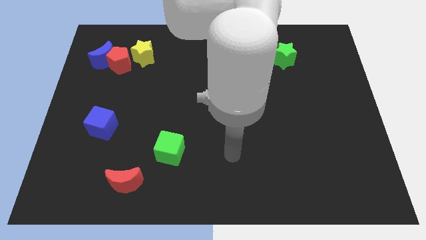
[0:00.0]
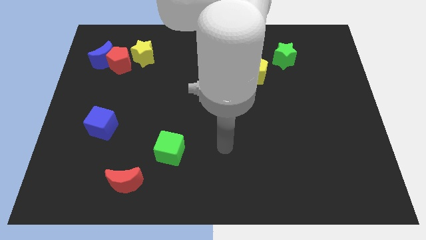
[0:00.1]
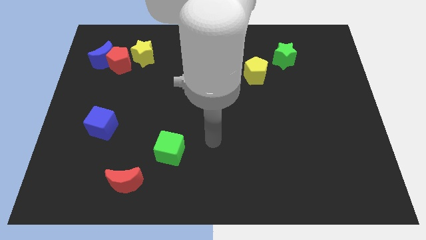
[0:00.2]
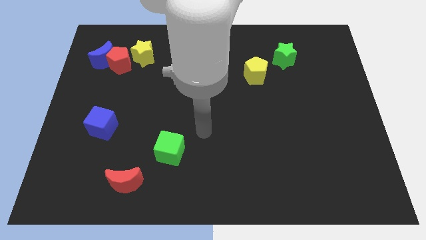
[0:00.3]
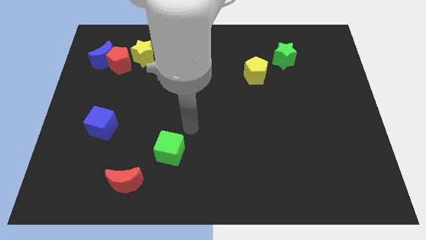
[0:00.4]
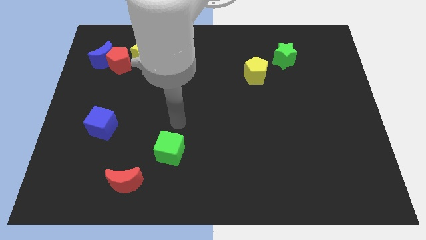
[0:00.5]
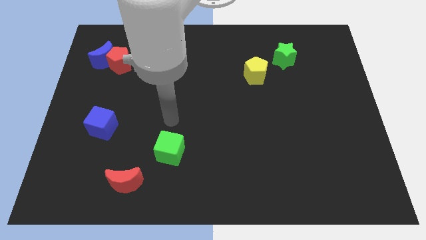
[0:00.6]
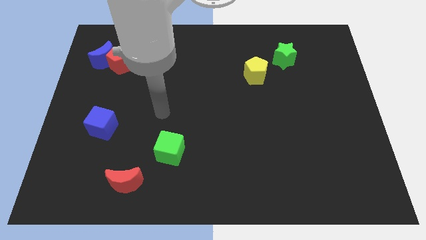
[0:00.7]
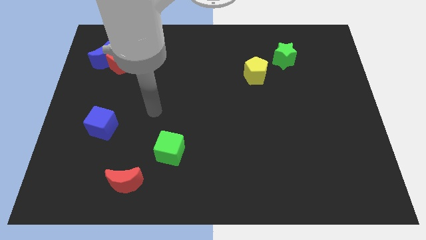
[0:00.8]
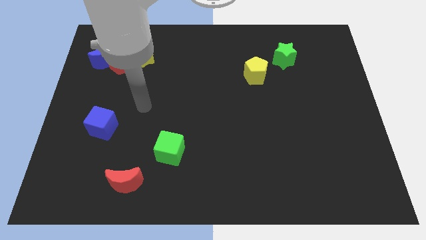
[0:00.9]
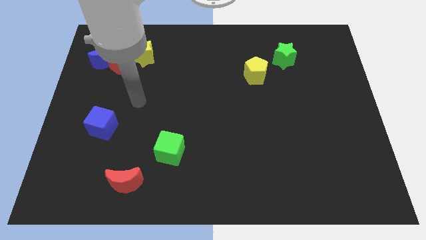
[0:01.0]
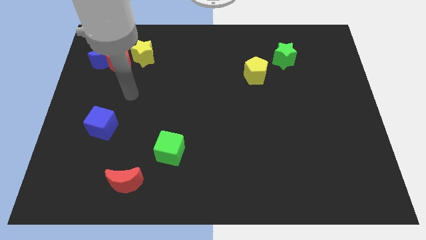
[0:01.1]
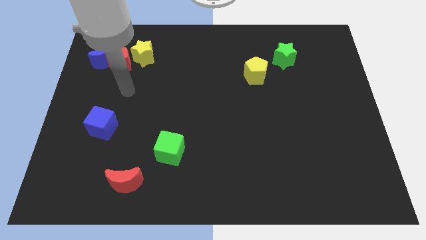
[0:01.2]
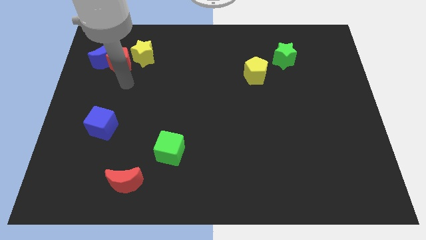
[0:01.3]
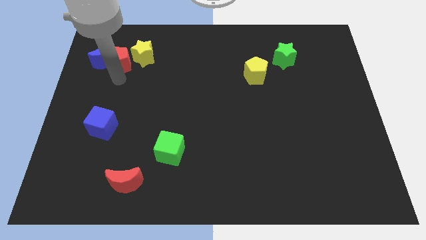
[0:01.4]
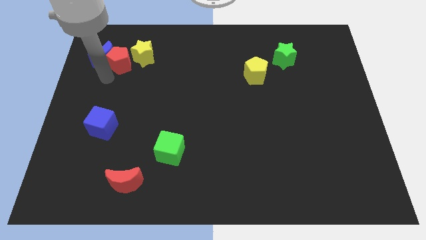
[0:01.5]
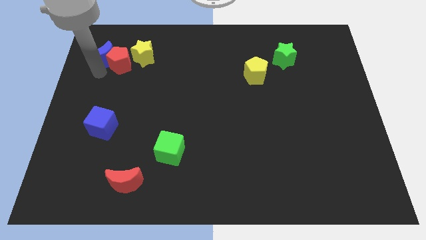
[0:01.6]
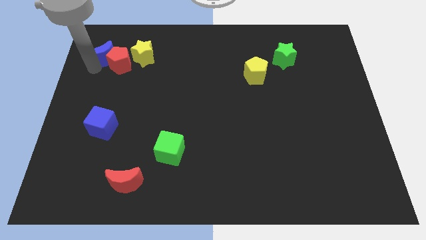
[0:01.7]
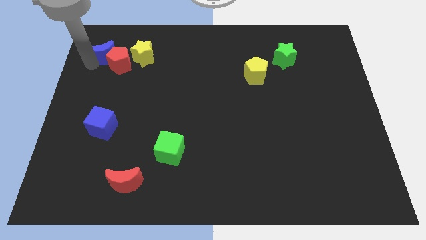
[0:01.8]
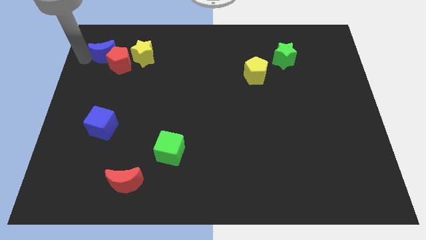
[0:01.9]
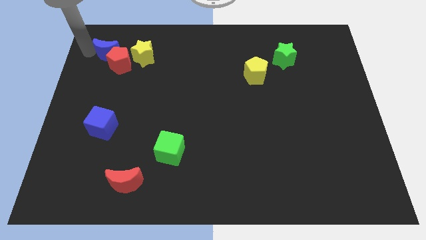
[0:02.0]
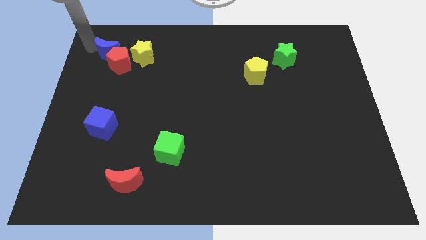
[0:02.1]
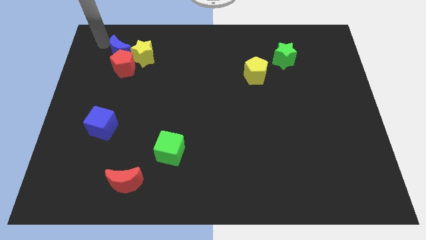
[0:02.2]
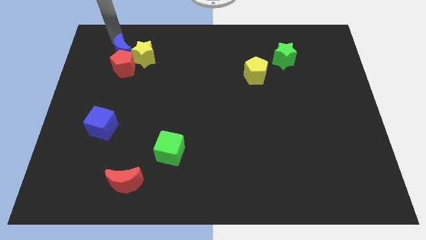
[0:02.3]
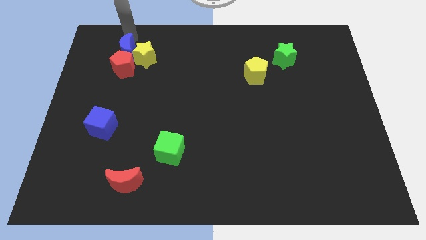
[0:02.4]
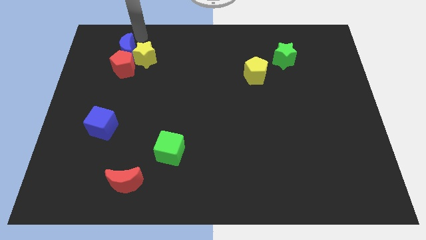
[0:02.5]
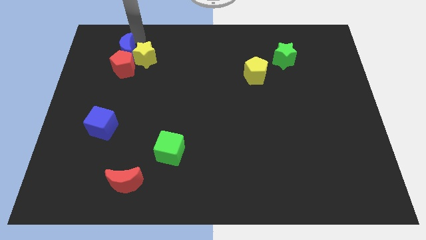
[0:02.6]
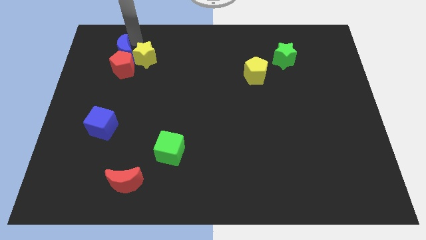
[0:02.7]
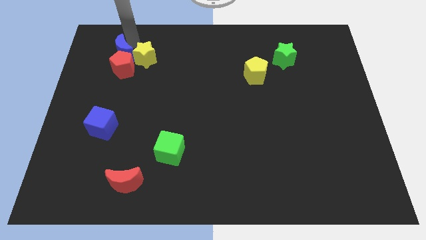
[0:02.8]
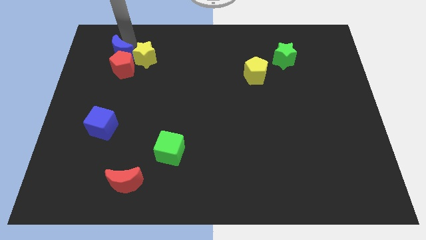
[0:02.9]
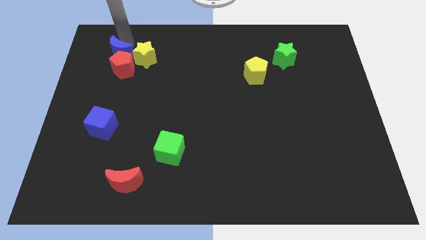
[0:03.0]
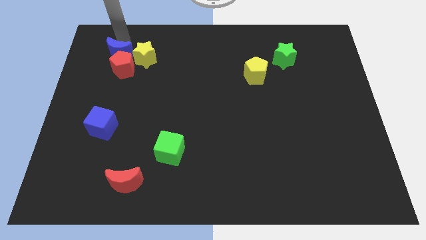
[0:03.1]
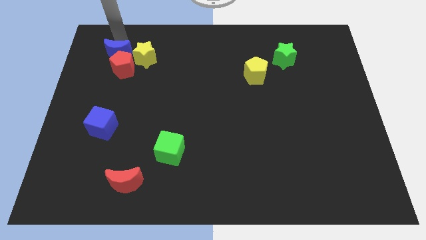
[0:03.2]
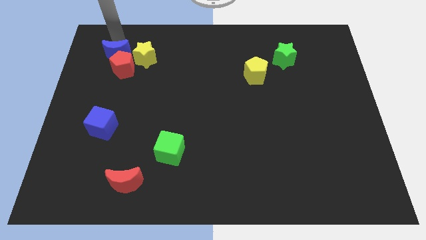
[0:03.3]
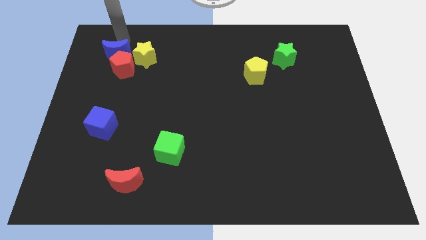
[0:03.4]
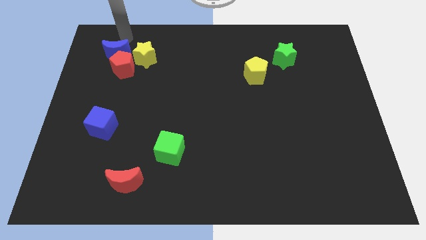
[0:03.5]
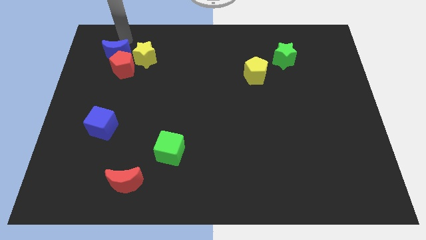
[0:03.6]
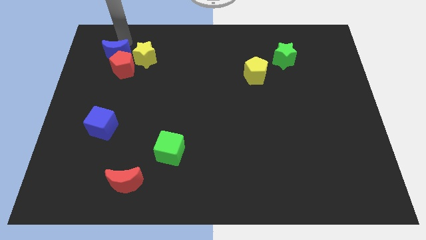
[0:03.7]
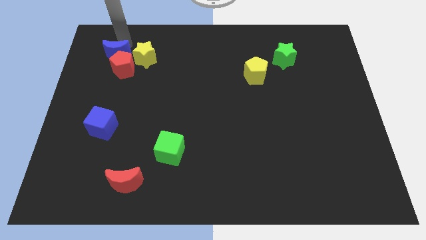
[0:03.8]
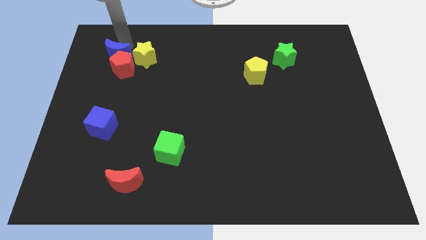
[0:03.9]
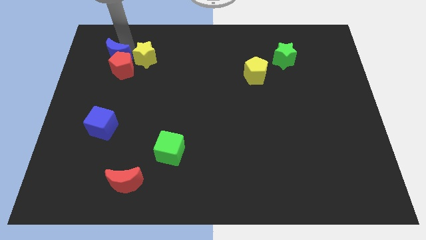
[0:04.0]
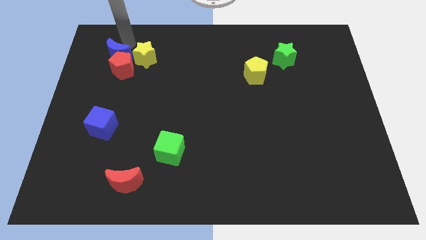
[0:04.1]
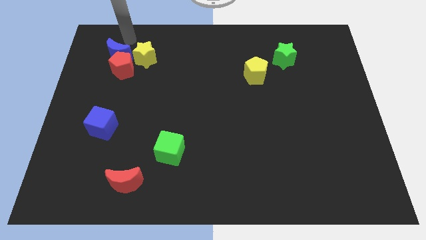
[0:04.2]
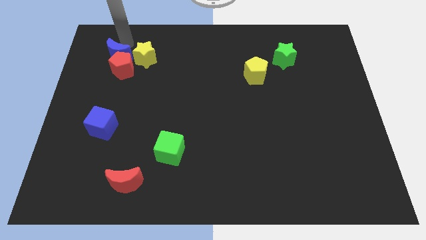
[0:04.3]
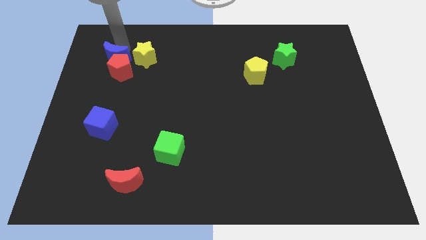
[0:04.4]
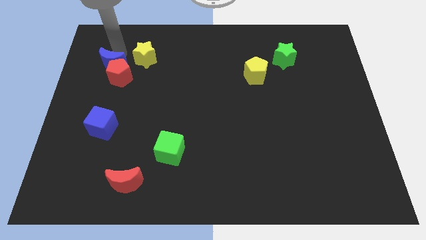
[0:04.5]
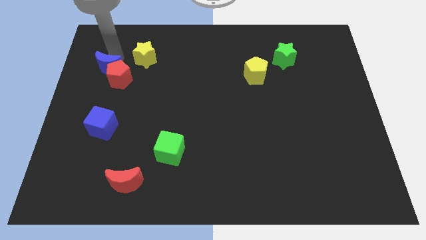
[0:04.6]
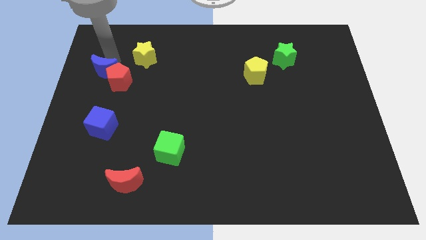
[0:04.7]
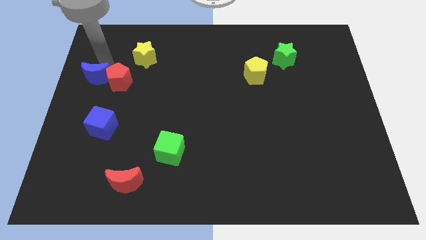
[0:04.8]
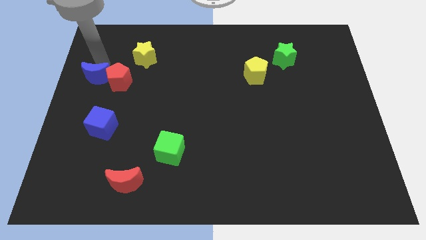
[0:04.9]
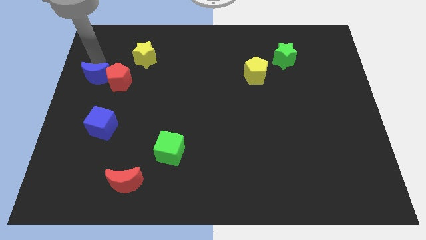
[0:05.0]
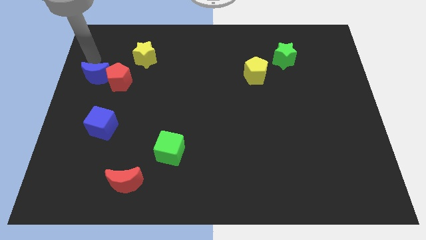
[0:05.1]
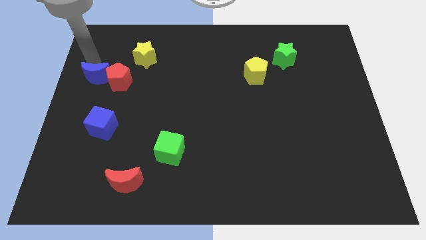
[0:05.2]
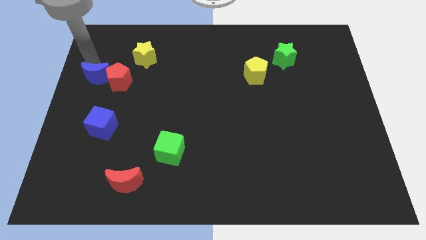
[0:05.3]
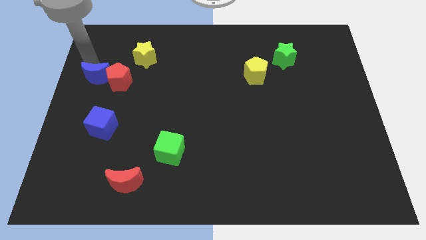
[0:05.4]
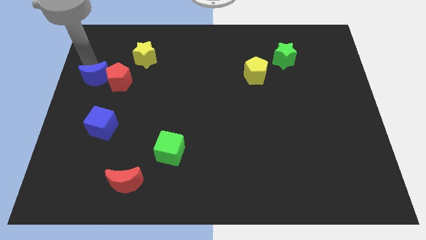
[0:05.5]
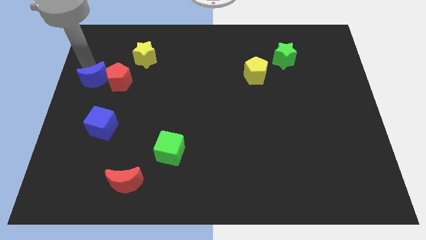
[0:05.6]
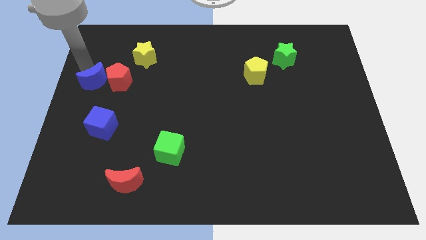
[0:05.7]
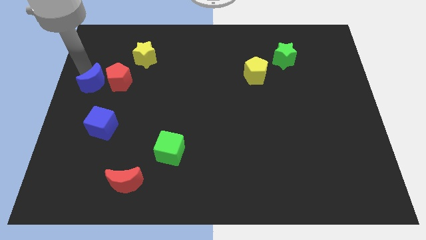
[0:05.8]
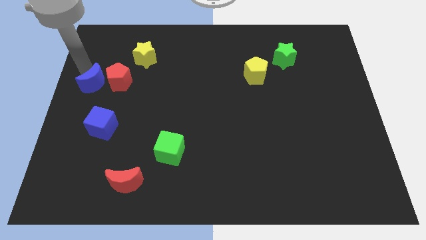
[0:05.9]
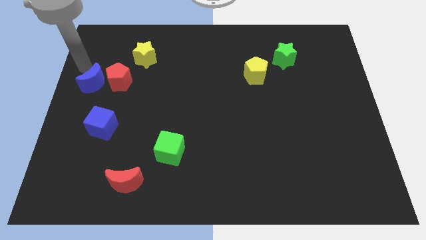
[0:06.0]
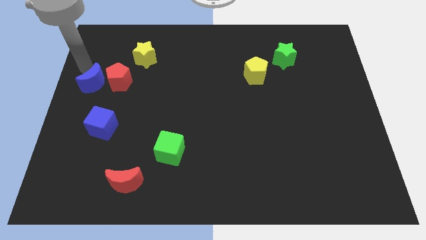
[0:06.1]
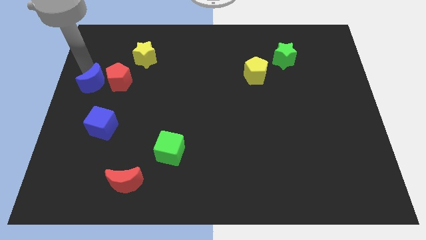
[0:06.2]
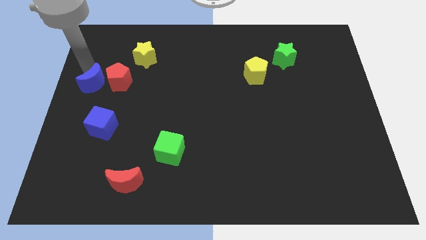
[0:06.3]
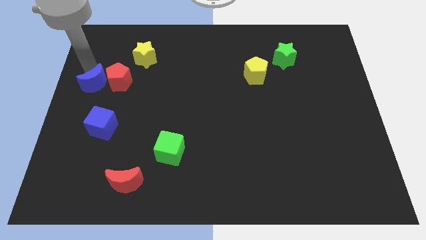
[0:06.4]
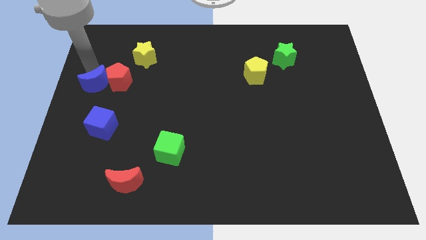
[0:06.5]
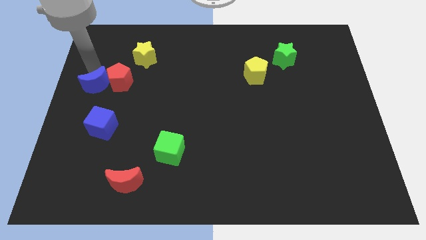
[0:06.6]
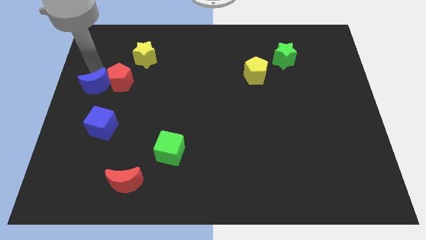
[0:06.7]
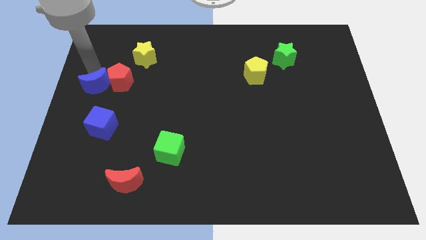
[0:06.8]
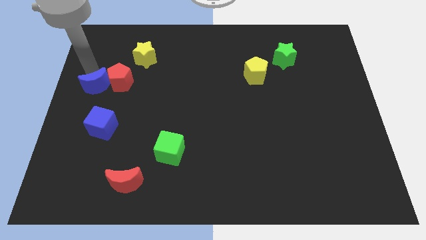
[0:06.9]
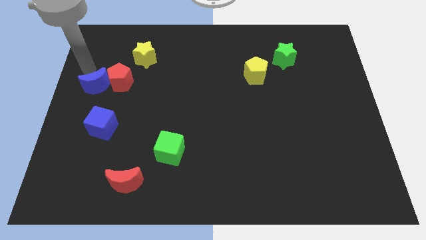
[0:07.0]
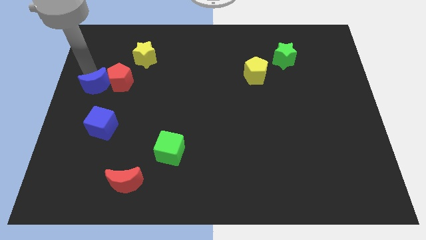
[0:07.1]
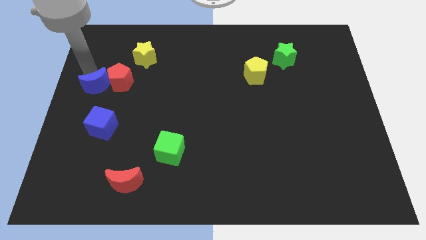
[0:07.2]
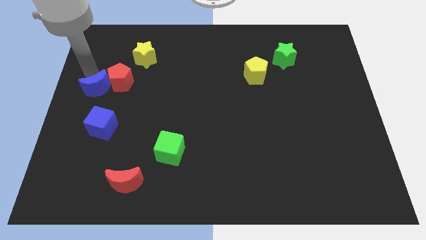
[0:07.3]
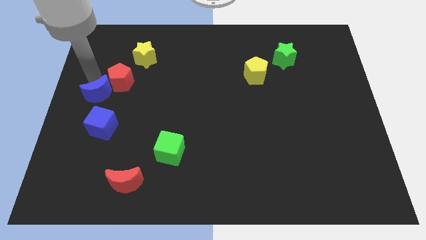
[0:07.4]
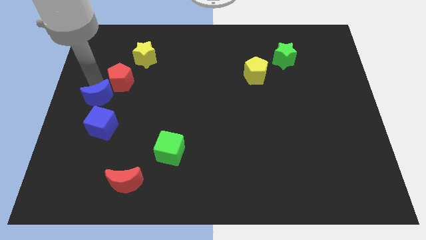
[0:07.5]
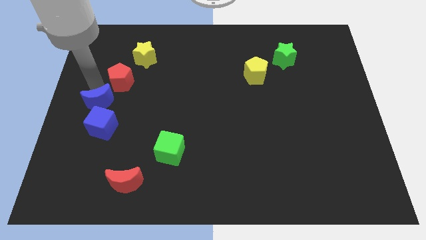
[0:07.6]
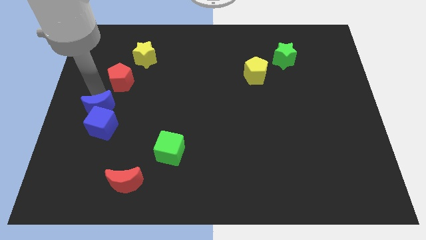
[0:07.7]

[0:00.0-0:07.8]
slide the blue moon to the blue cube
